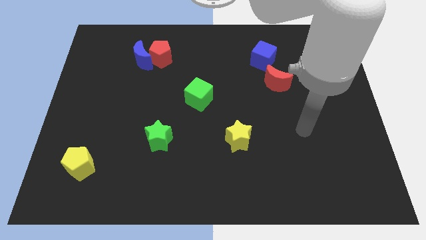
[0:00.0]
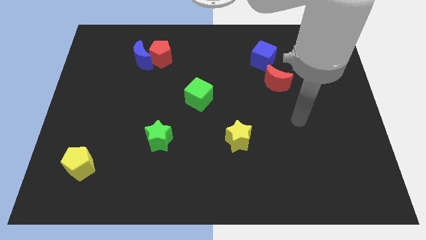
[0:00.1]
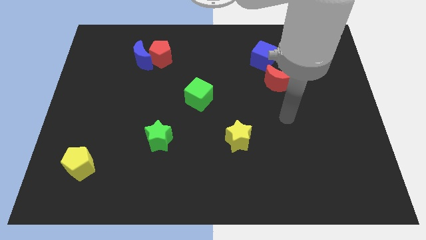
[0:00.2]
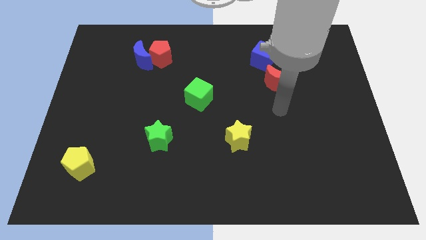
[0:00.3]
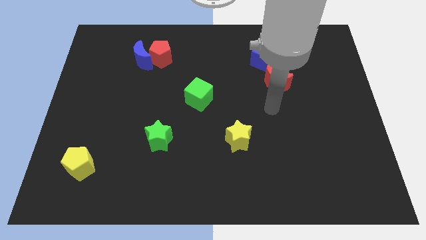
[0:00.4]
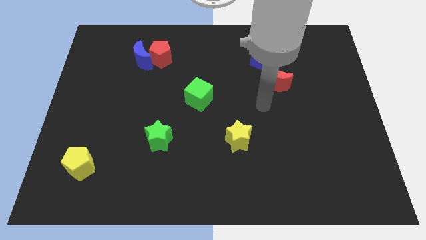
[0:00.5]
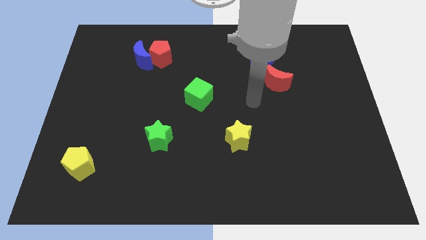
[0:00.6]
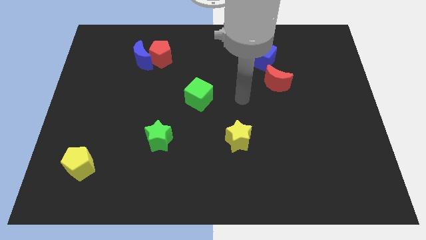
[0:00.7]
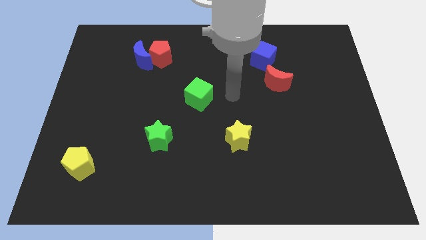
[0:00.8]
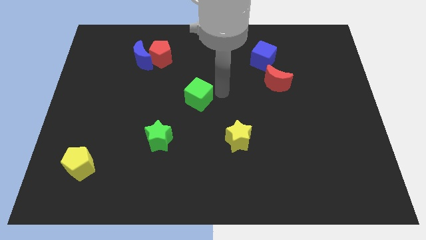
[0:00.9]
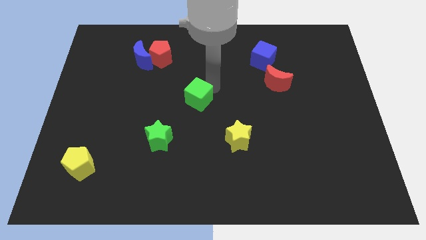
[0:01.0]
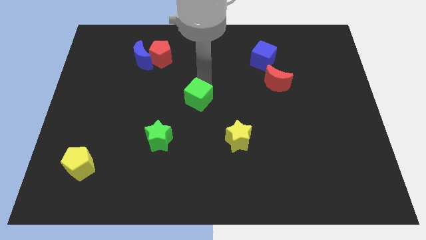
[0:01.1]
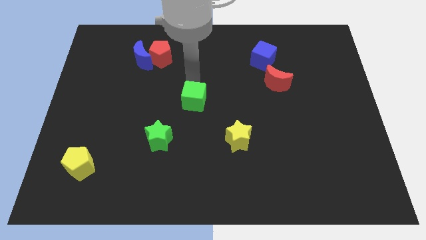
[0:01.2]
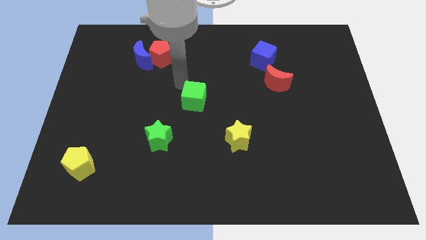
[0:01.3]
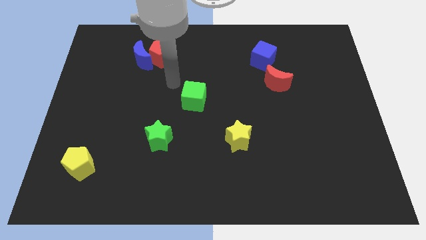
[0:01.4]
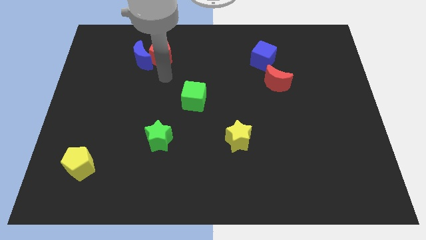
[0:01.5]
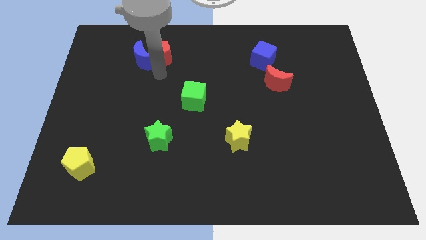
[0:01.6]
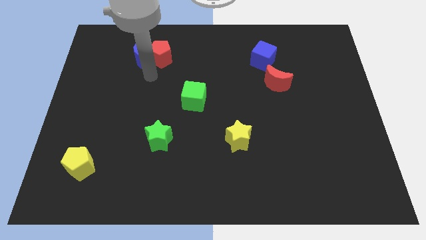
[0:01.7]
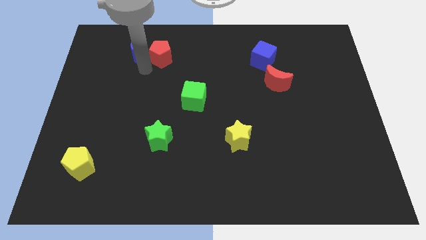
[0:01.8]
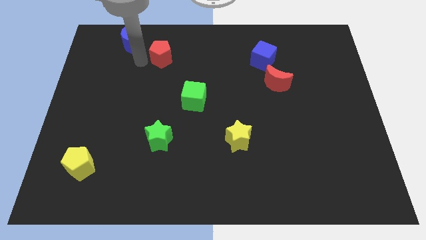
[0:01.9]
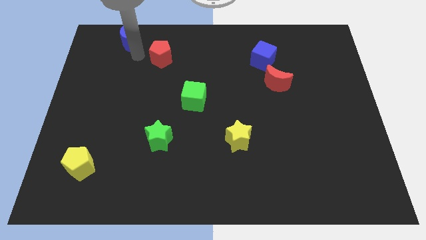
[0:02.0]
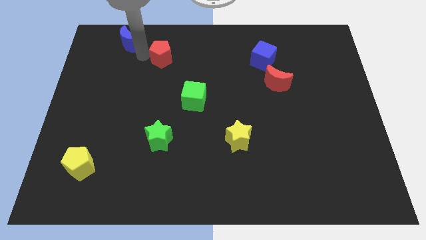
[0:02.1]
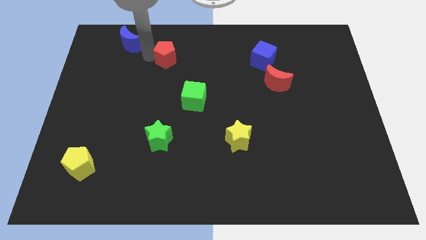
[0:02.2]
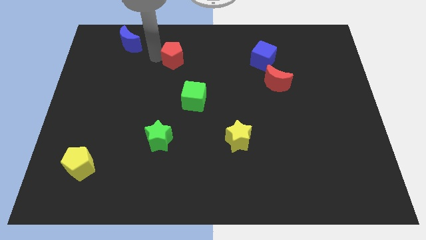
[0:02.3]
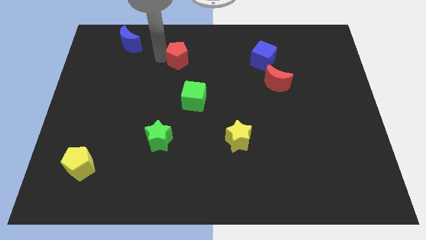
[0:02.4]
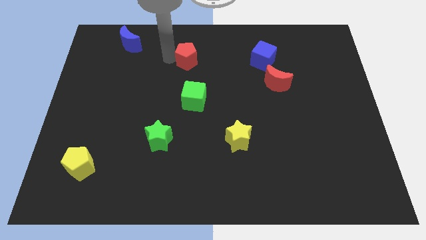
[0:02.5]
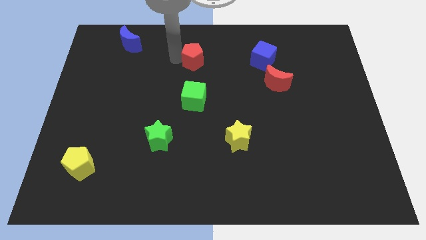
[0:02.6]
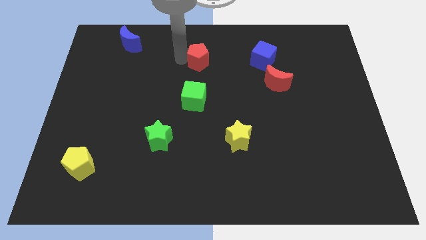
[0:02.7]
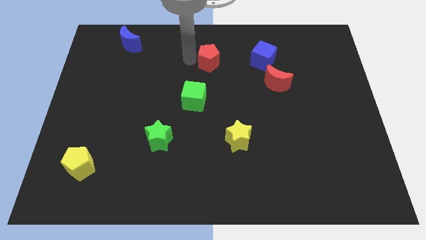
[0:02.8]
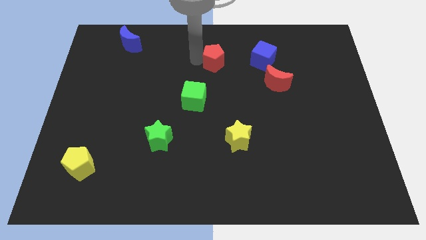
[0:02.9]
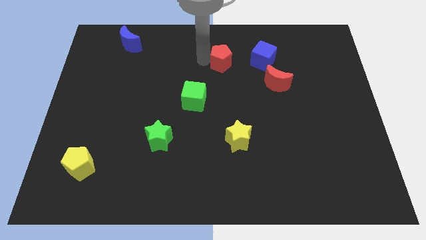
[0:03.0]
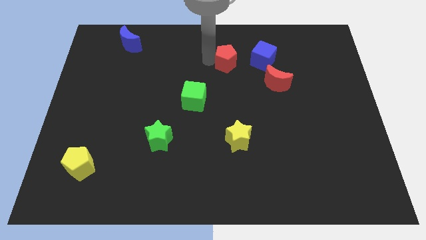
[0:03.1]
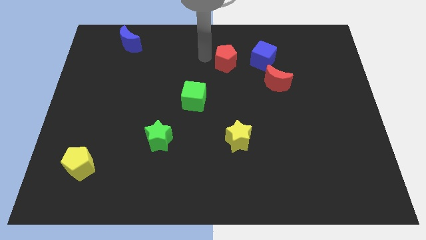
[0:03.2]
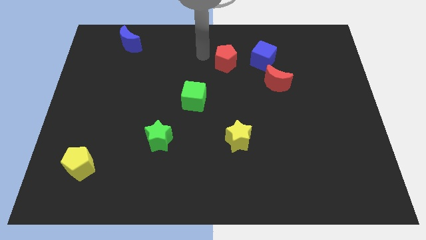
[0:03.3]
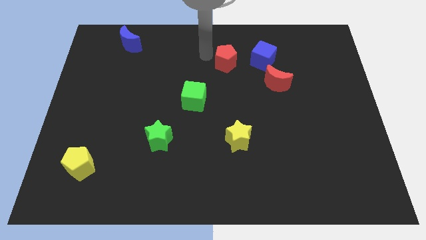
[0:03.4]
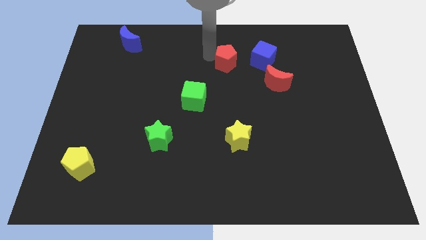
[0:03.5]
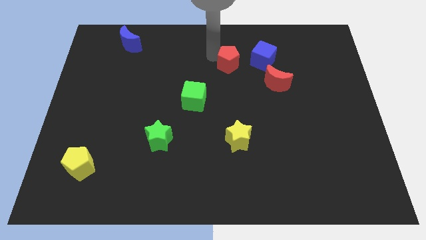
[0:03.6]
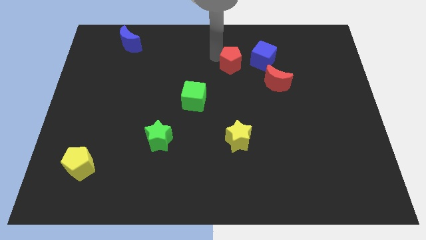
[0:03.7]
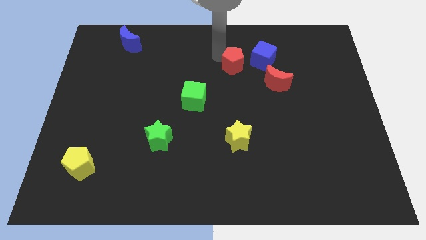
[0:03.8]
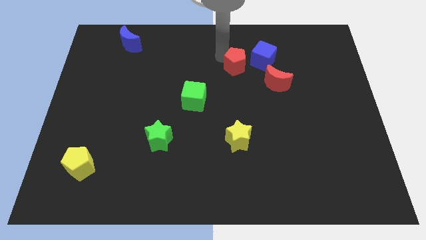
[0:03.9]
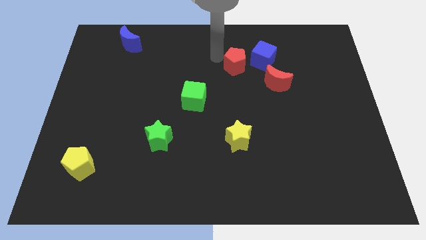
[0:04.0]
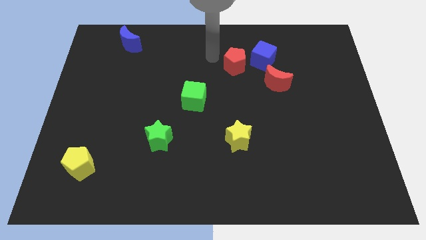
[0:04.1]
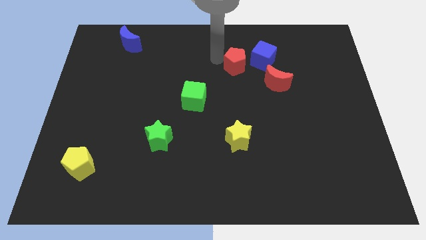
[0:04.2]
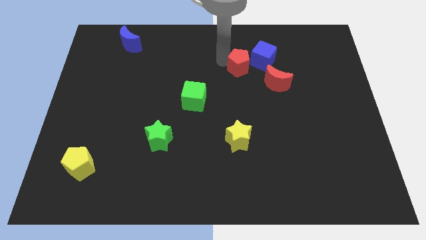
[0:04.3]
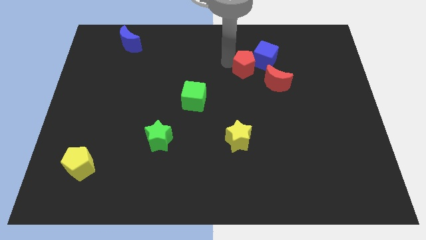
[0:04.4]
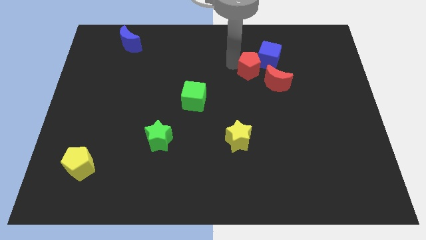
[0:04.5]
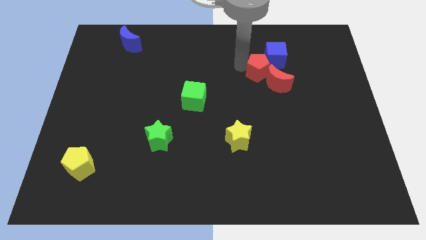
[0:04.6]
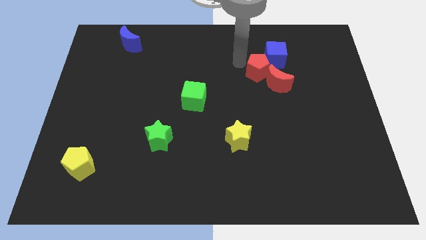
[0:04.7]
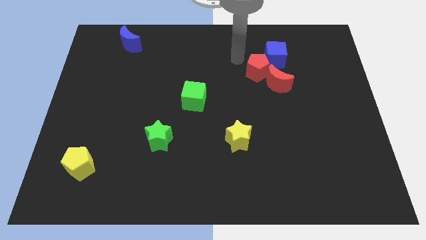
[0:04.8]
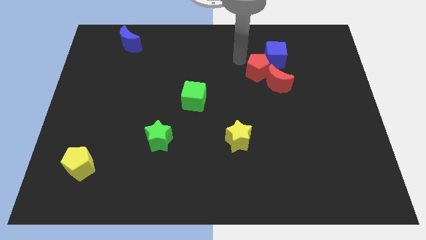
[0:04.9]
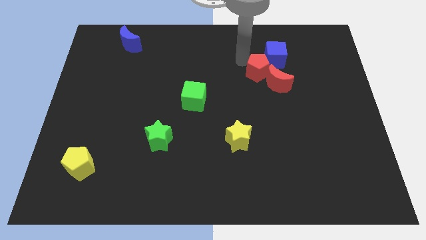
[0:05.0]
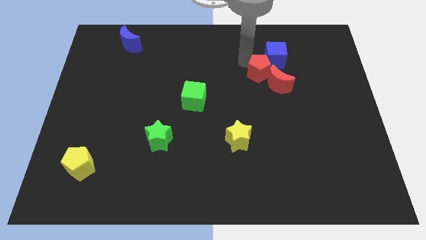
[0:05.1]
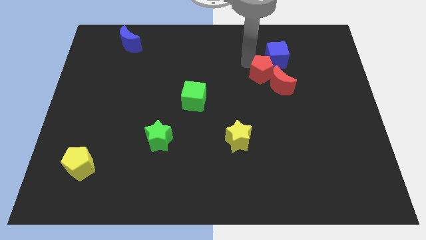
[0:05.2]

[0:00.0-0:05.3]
slide the red pentagon towards the red moon

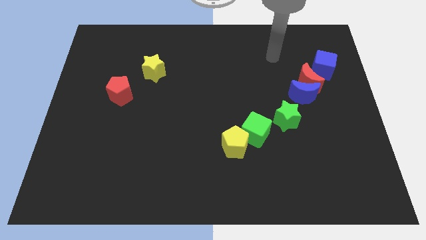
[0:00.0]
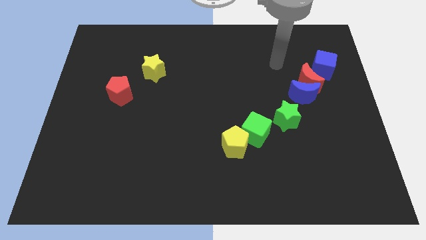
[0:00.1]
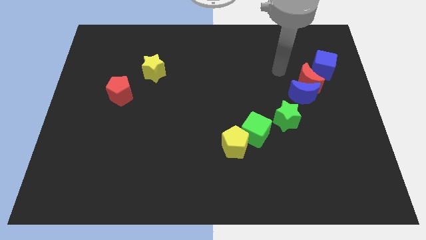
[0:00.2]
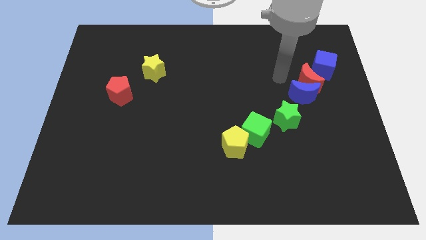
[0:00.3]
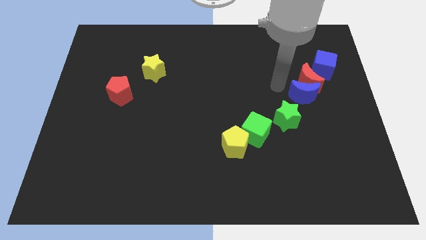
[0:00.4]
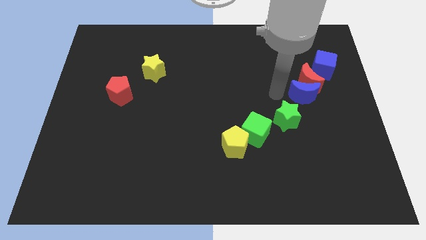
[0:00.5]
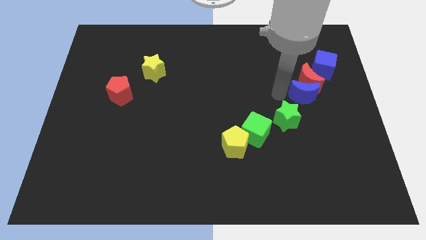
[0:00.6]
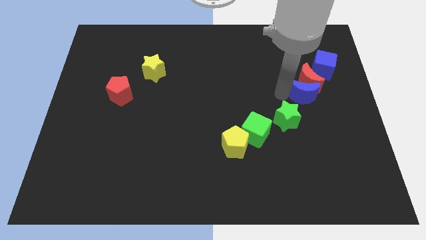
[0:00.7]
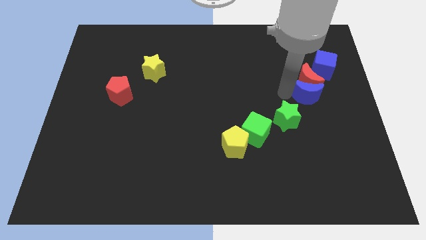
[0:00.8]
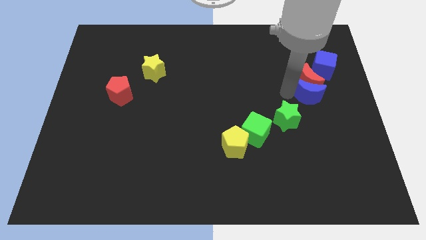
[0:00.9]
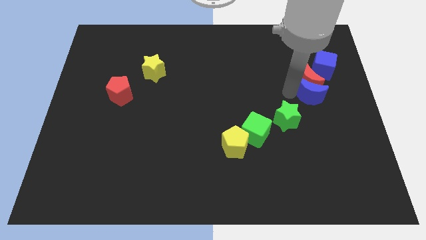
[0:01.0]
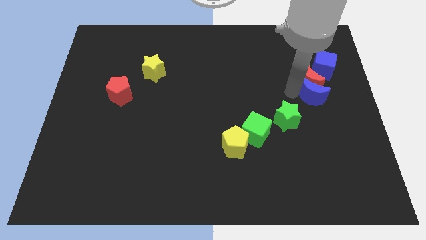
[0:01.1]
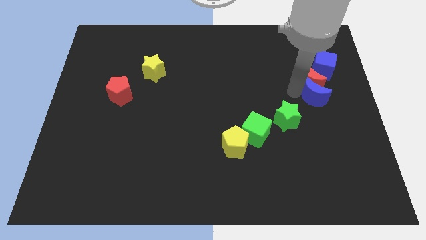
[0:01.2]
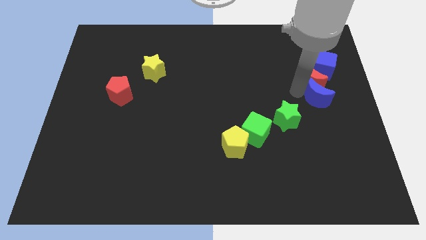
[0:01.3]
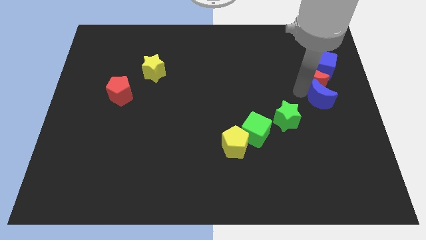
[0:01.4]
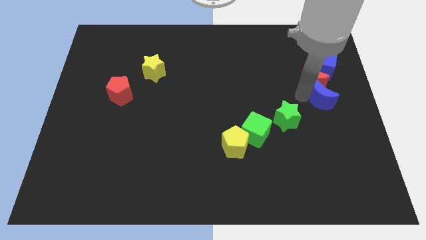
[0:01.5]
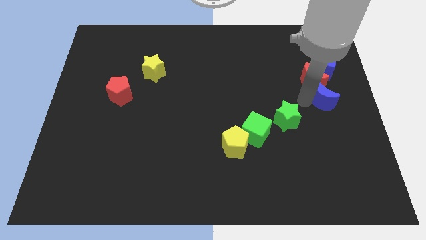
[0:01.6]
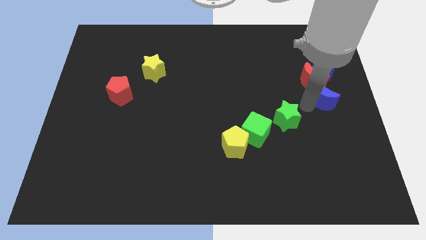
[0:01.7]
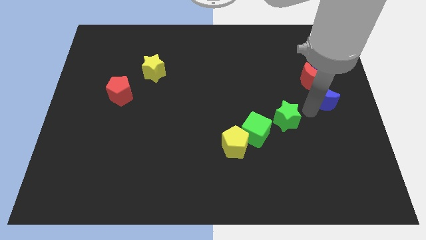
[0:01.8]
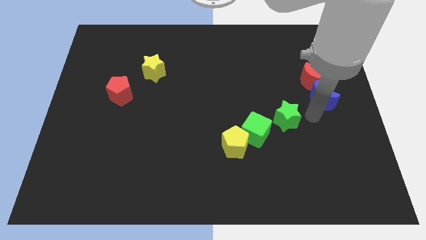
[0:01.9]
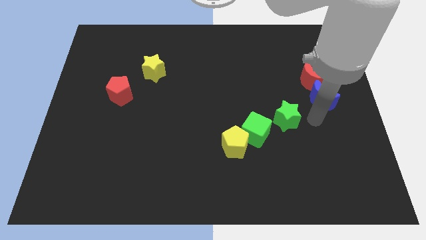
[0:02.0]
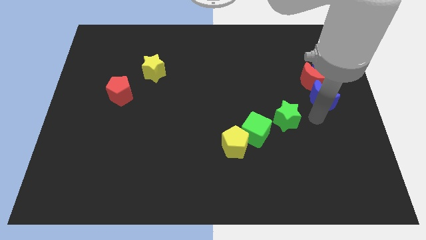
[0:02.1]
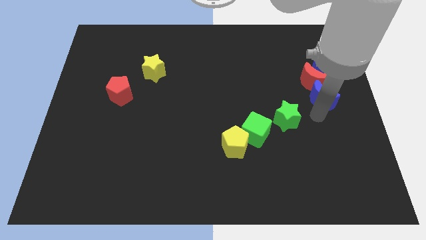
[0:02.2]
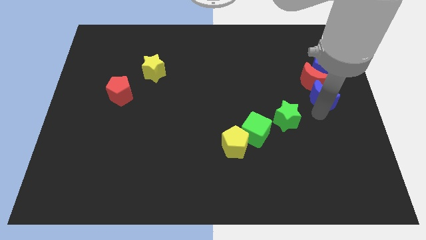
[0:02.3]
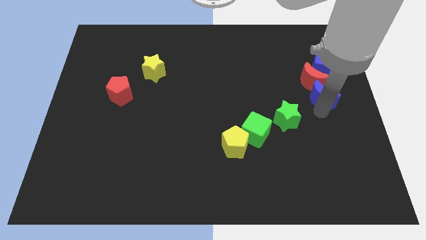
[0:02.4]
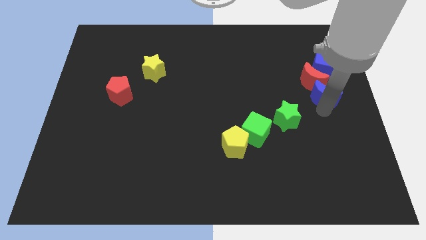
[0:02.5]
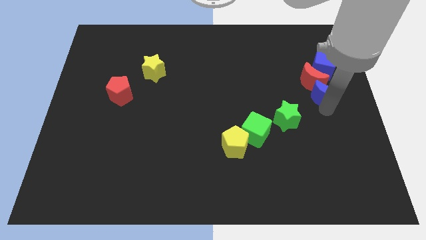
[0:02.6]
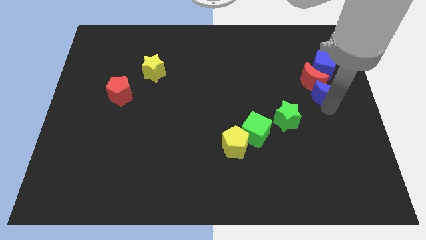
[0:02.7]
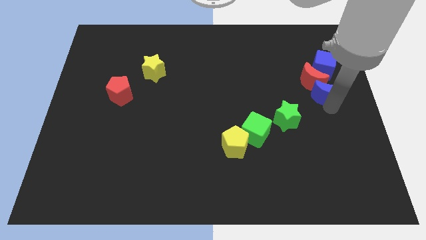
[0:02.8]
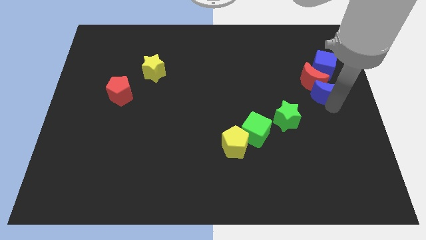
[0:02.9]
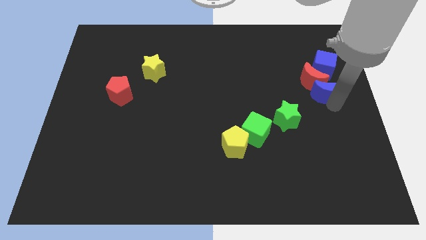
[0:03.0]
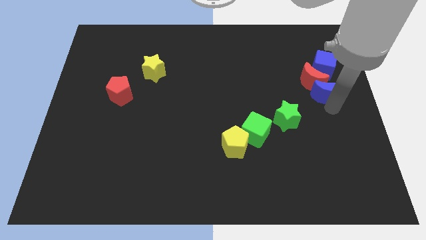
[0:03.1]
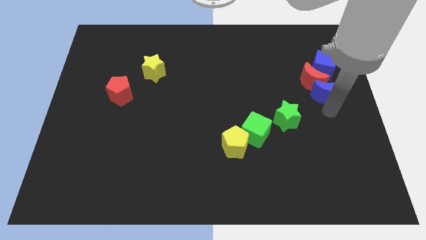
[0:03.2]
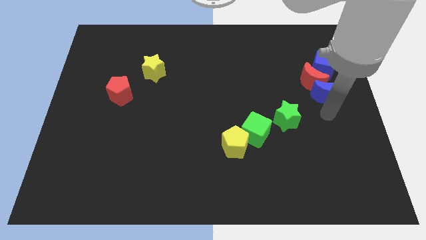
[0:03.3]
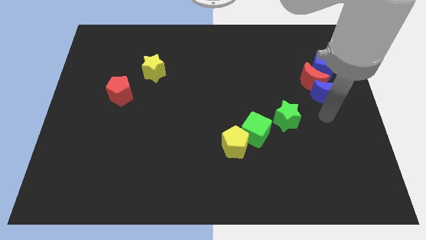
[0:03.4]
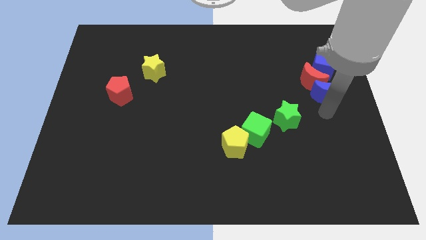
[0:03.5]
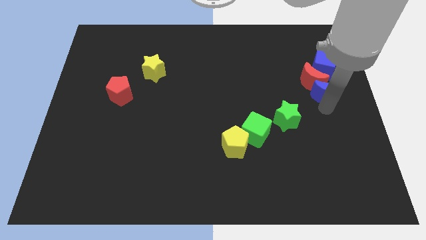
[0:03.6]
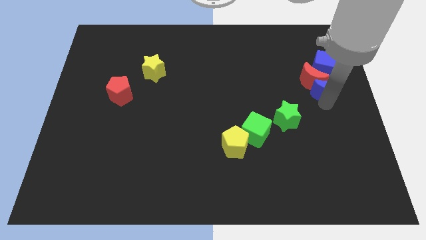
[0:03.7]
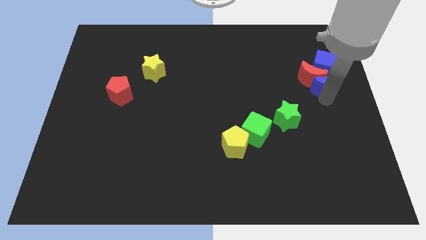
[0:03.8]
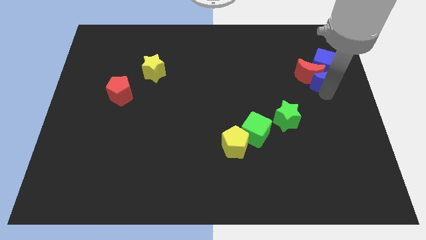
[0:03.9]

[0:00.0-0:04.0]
push the blue moon close to the blue cube
